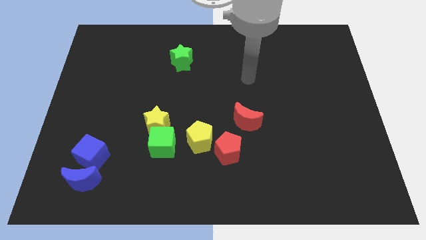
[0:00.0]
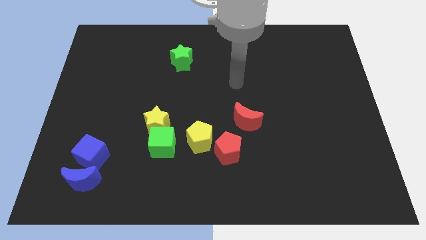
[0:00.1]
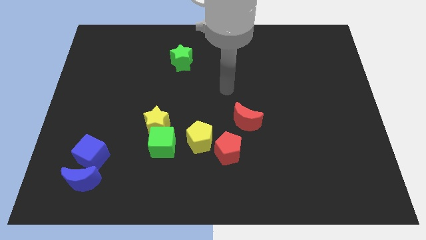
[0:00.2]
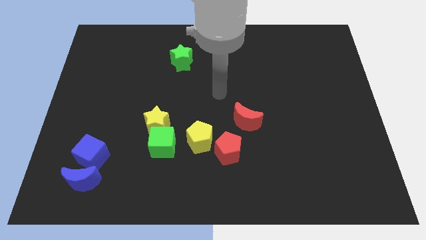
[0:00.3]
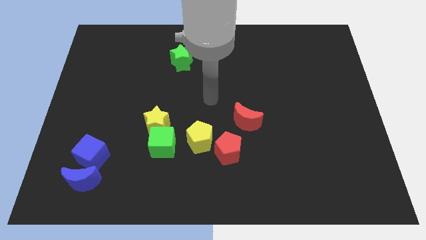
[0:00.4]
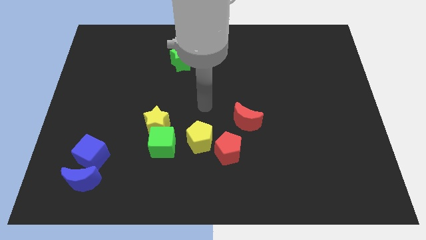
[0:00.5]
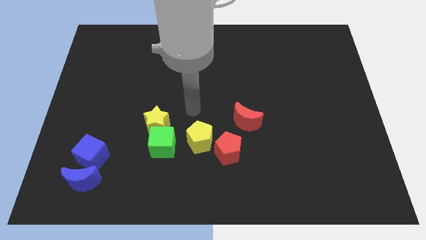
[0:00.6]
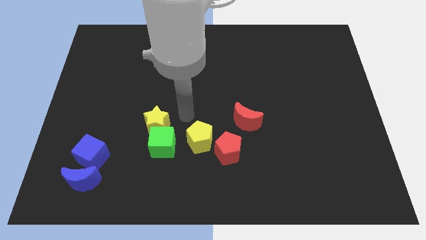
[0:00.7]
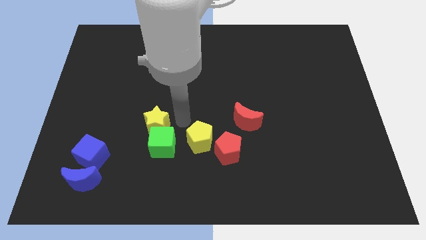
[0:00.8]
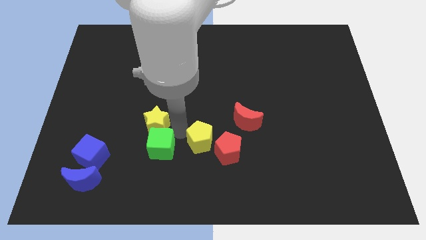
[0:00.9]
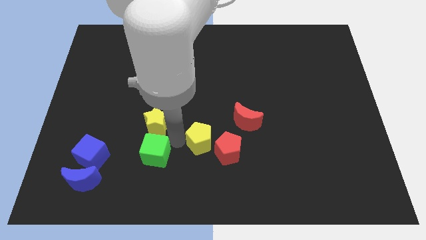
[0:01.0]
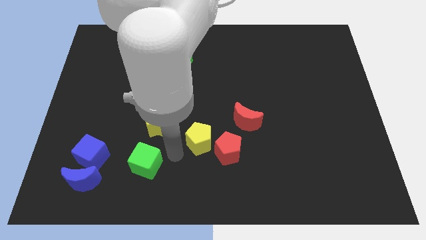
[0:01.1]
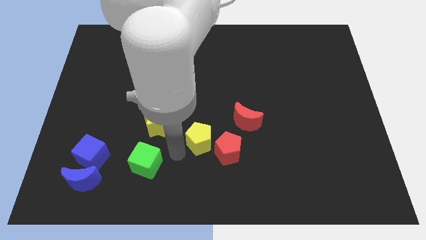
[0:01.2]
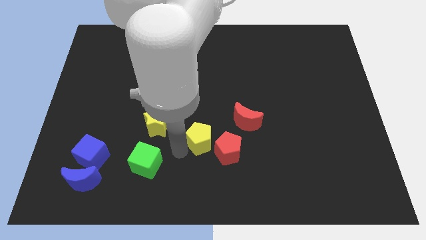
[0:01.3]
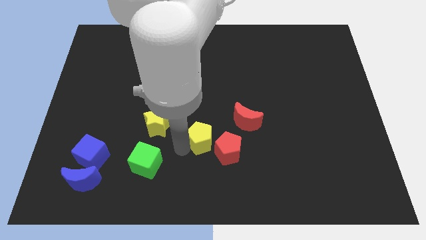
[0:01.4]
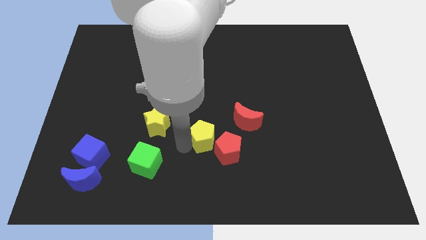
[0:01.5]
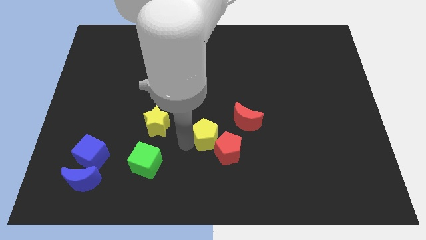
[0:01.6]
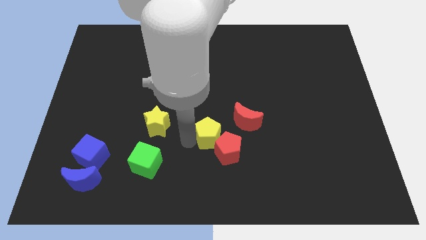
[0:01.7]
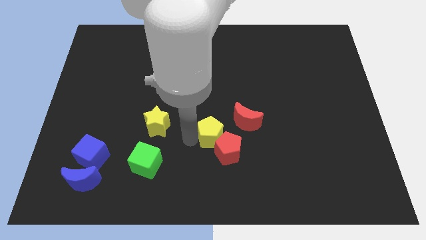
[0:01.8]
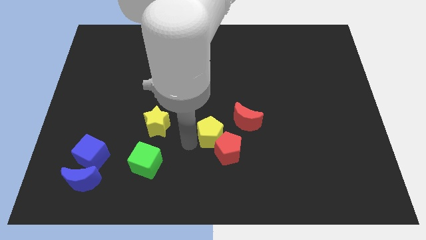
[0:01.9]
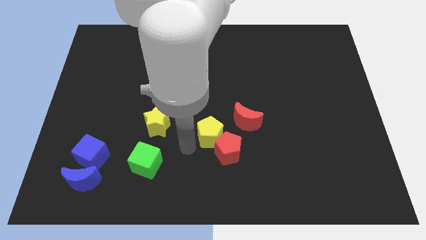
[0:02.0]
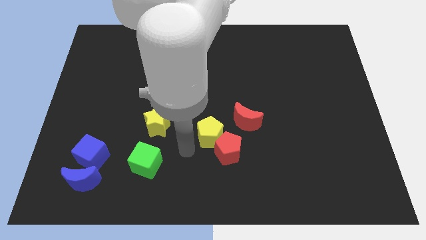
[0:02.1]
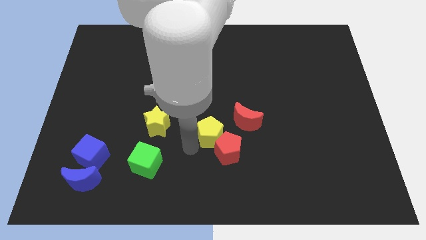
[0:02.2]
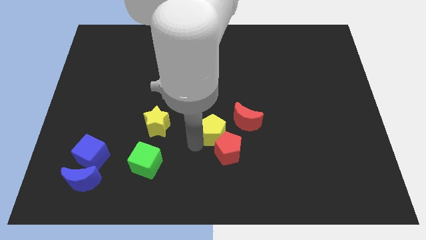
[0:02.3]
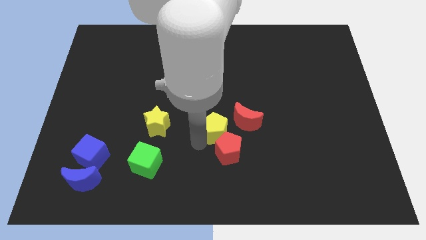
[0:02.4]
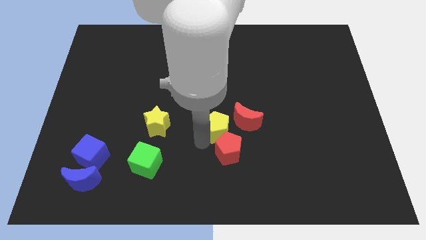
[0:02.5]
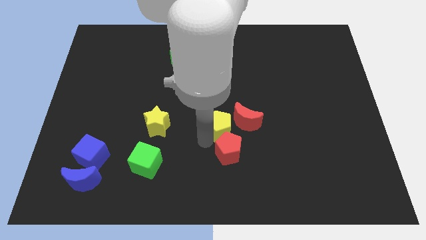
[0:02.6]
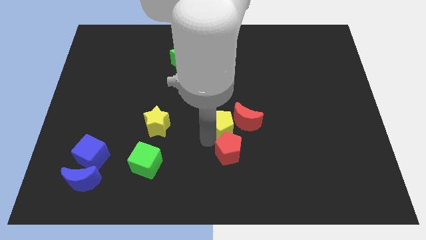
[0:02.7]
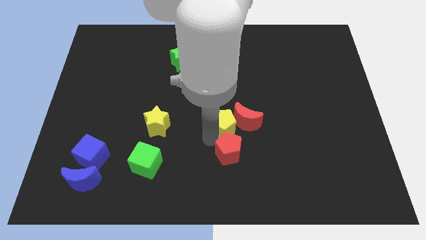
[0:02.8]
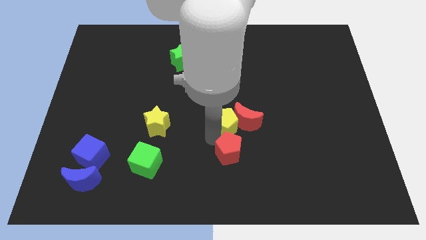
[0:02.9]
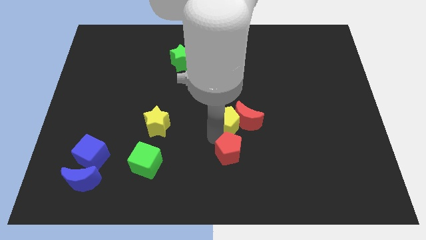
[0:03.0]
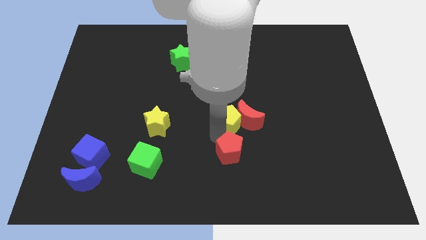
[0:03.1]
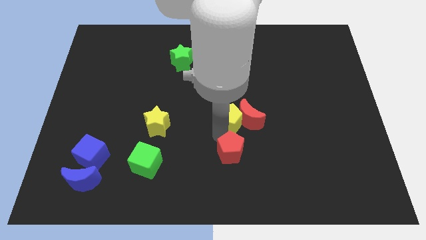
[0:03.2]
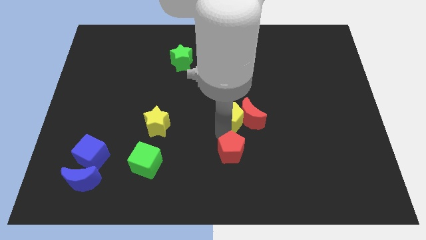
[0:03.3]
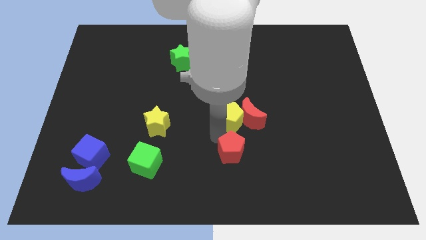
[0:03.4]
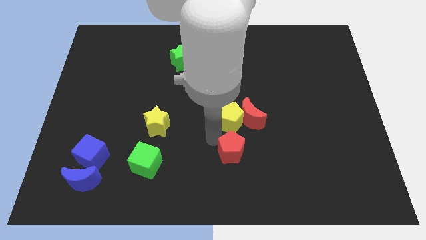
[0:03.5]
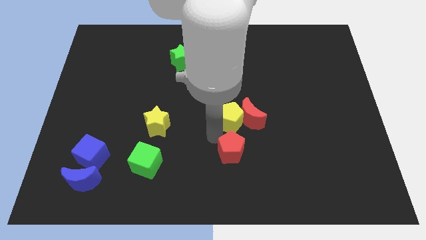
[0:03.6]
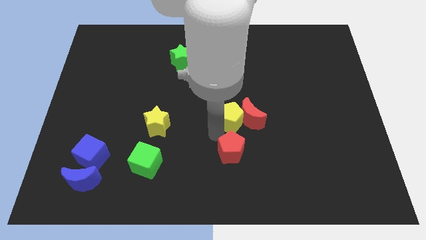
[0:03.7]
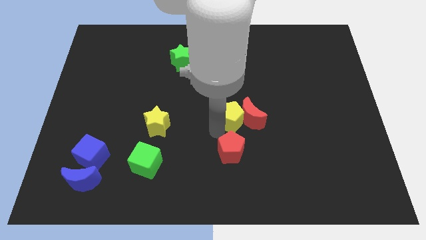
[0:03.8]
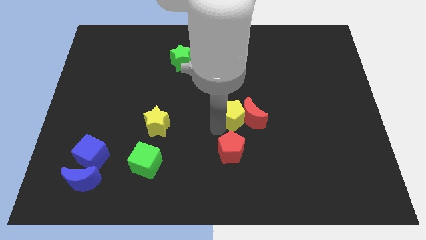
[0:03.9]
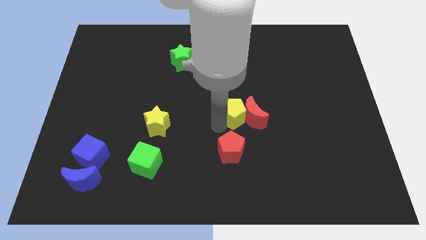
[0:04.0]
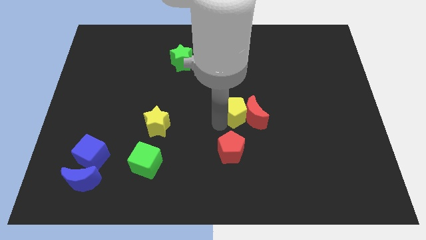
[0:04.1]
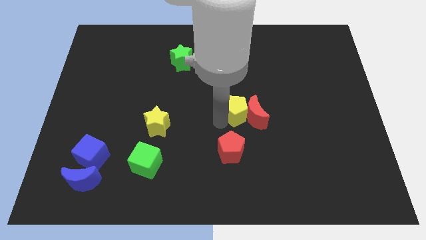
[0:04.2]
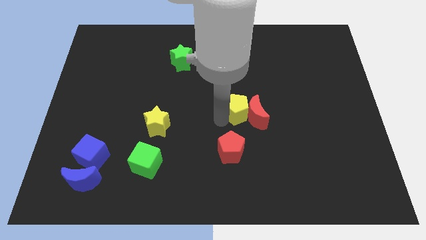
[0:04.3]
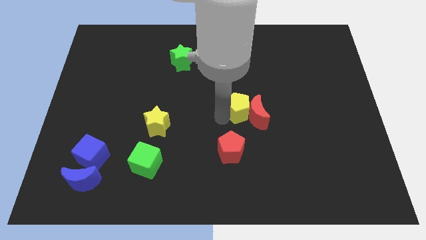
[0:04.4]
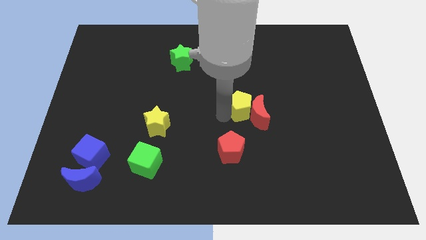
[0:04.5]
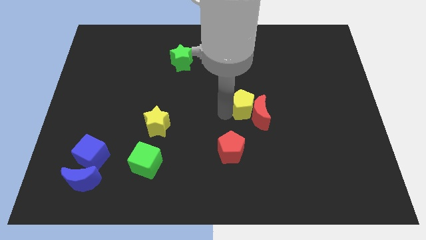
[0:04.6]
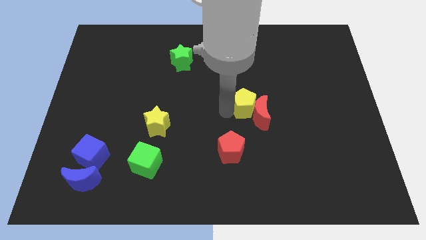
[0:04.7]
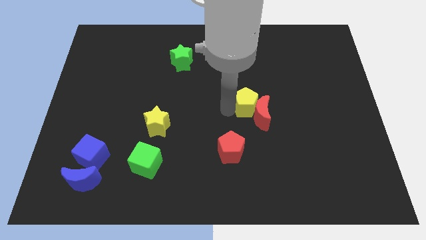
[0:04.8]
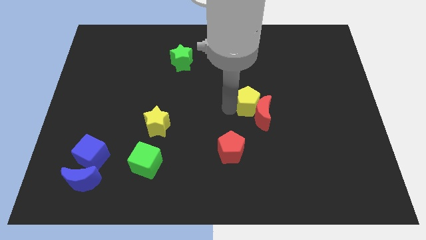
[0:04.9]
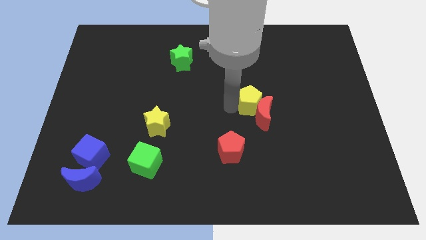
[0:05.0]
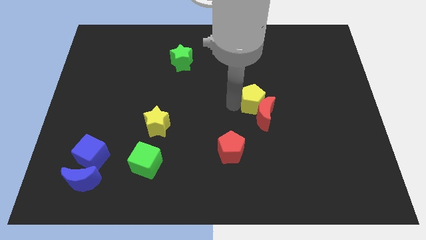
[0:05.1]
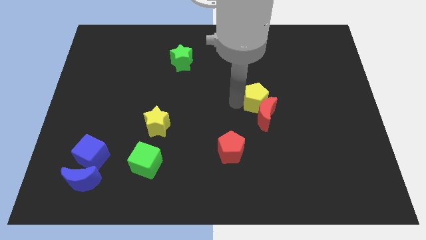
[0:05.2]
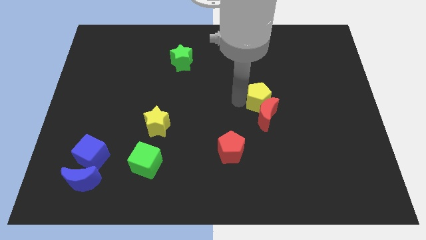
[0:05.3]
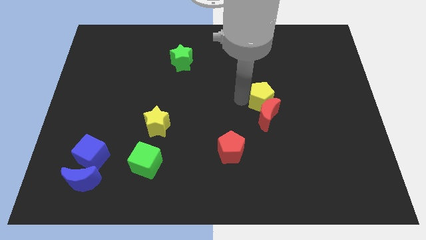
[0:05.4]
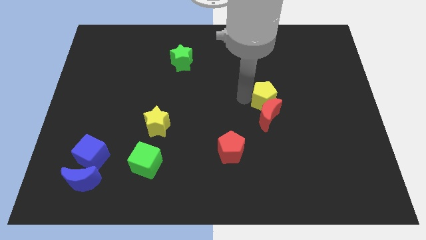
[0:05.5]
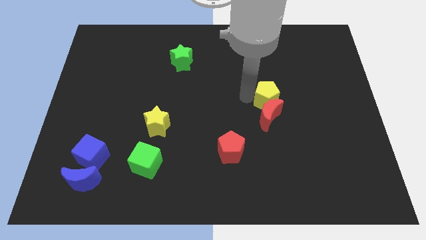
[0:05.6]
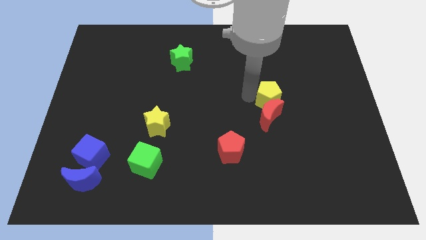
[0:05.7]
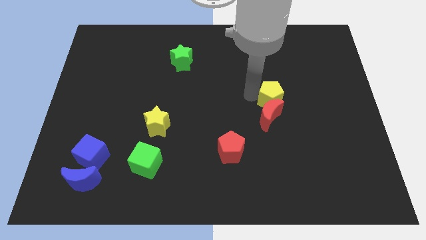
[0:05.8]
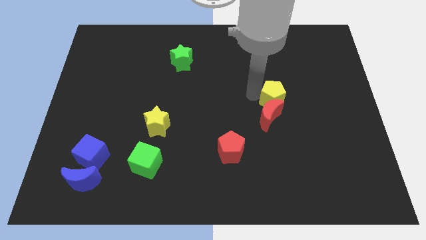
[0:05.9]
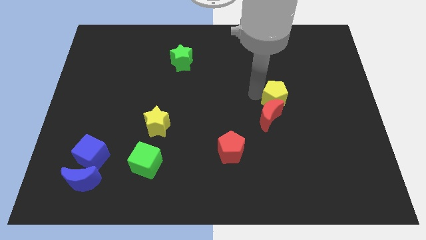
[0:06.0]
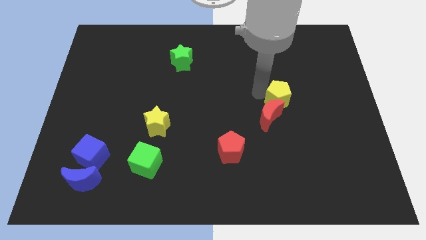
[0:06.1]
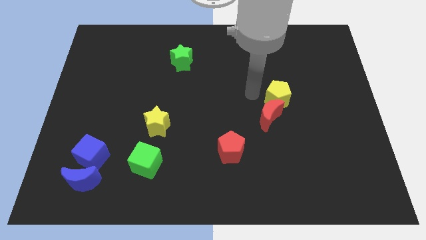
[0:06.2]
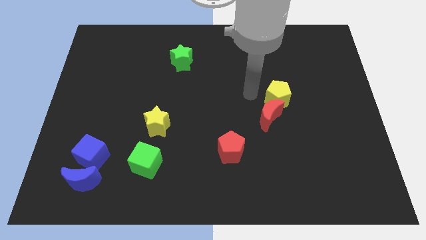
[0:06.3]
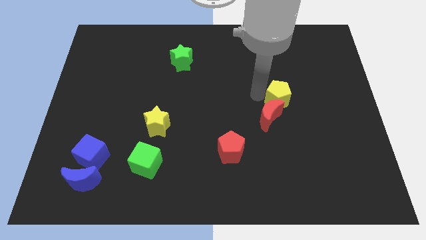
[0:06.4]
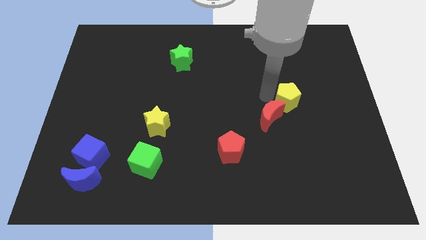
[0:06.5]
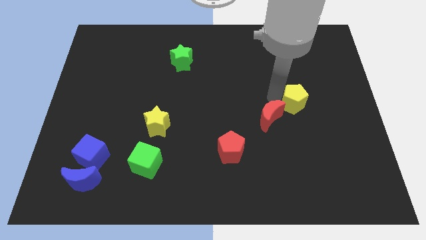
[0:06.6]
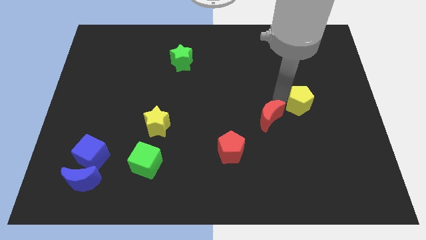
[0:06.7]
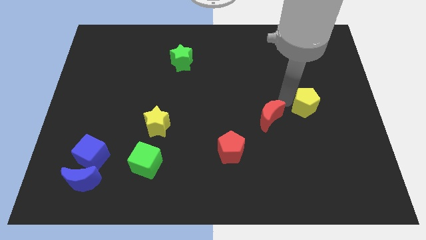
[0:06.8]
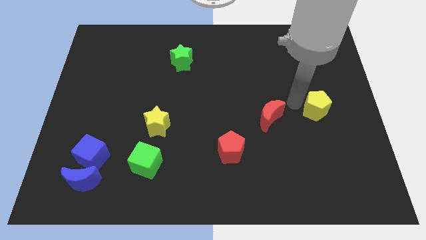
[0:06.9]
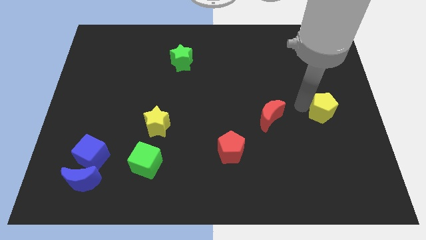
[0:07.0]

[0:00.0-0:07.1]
move the yellow pentagon to the center right
